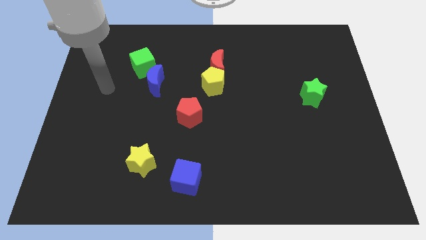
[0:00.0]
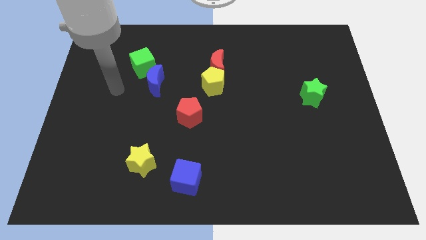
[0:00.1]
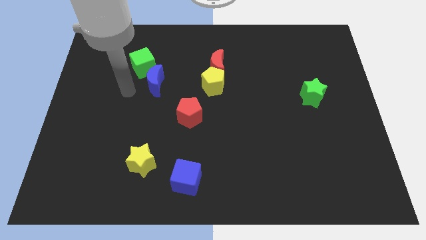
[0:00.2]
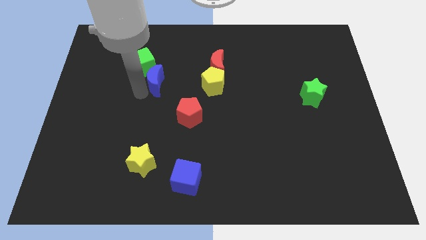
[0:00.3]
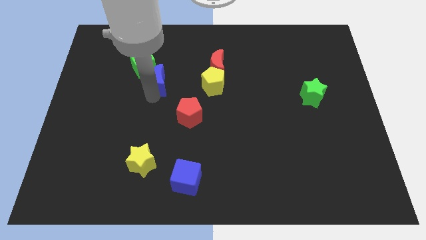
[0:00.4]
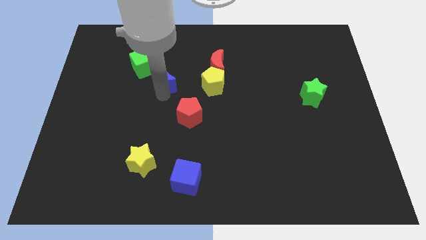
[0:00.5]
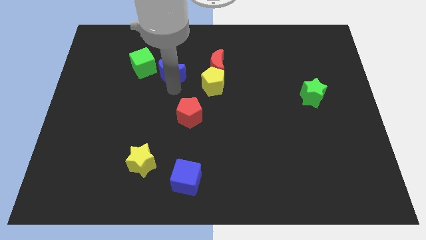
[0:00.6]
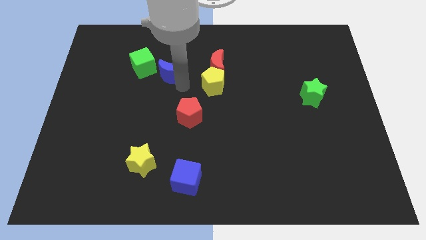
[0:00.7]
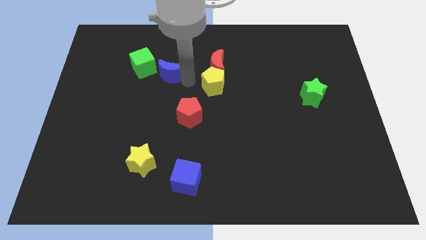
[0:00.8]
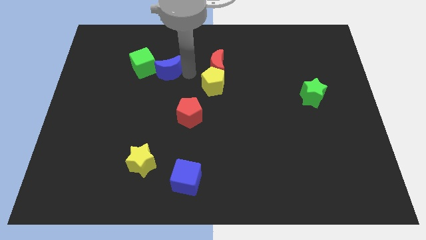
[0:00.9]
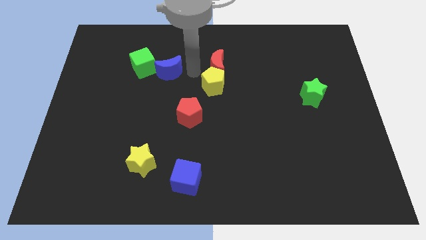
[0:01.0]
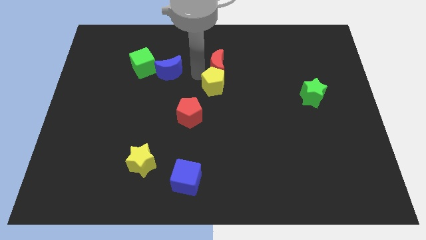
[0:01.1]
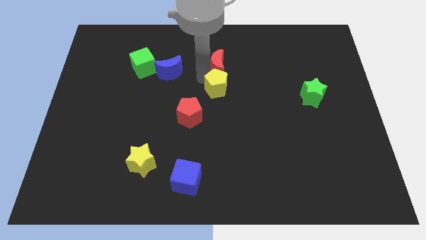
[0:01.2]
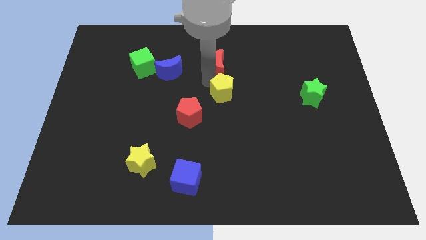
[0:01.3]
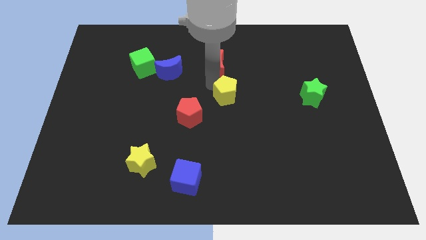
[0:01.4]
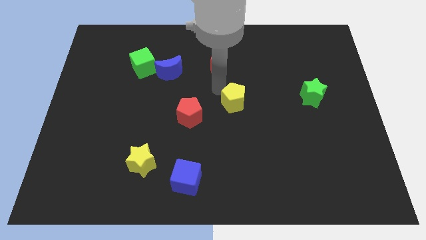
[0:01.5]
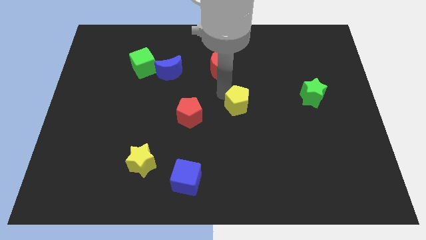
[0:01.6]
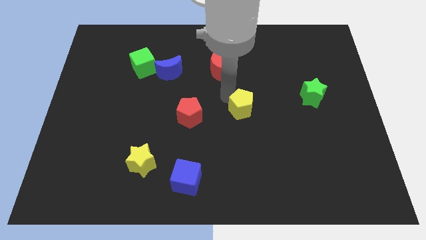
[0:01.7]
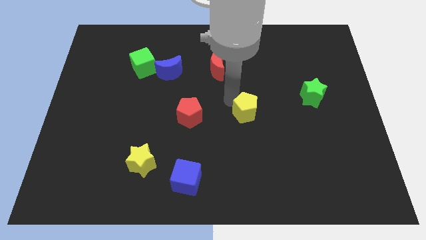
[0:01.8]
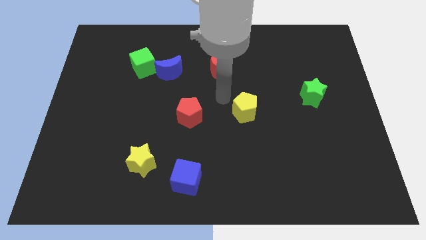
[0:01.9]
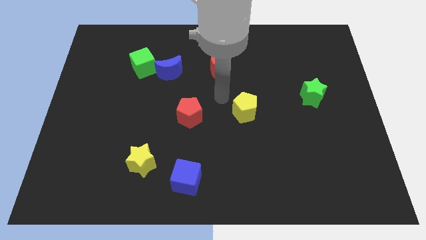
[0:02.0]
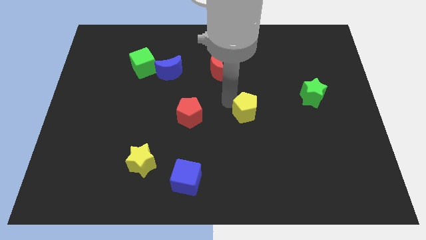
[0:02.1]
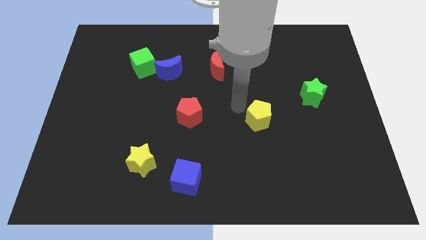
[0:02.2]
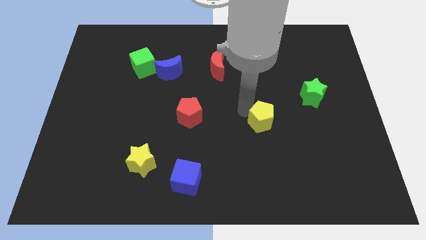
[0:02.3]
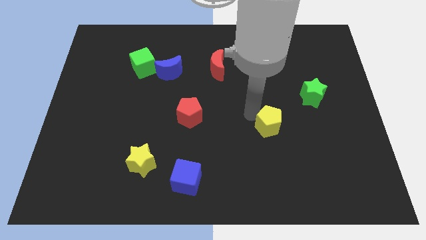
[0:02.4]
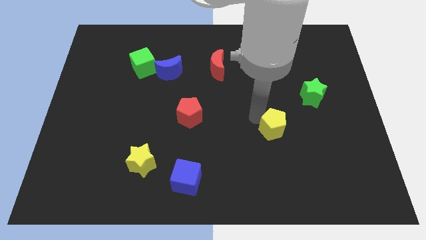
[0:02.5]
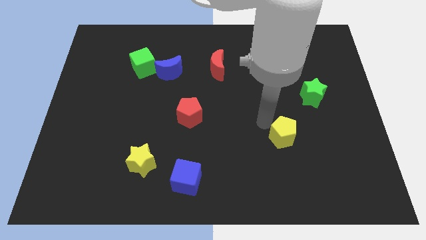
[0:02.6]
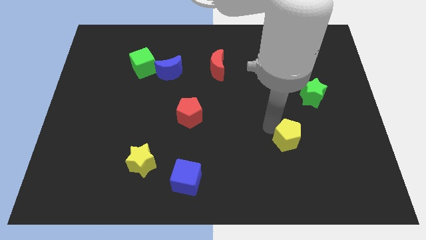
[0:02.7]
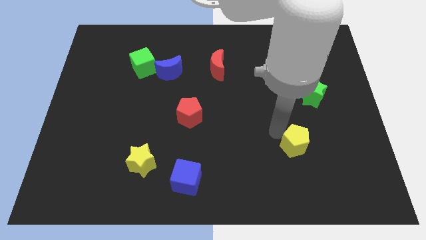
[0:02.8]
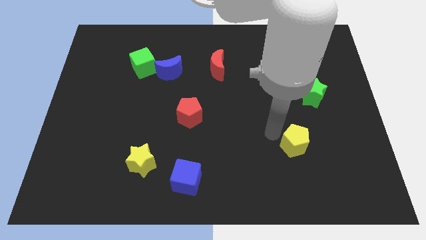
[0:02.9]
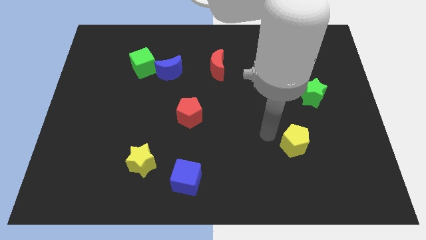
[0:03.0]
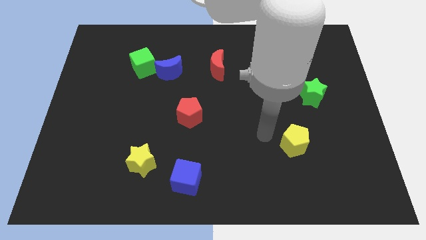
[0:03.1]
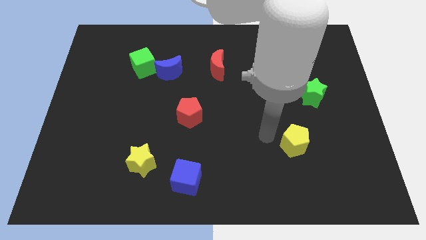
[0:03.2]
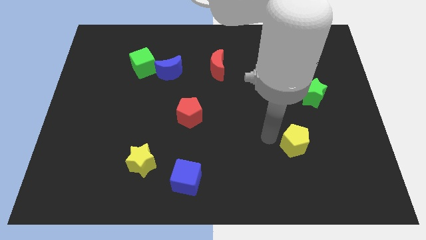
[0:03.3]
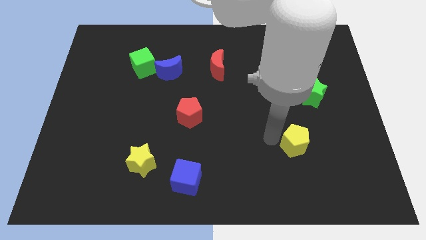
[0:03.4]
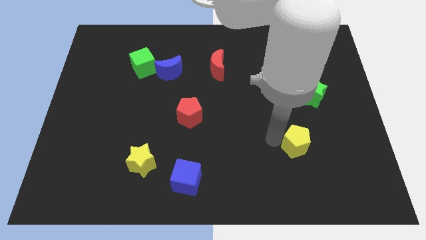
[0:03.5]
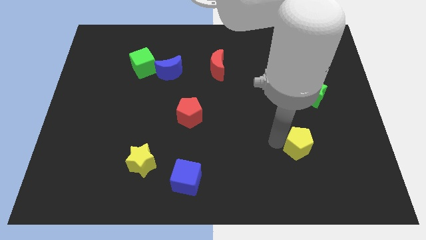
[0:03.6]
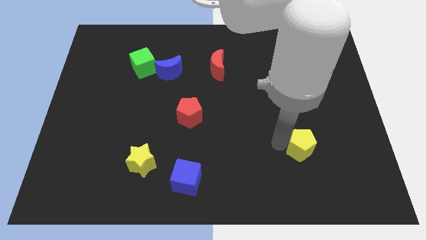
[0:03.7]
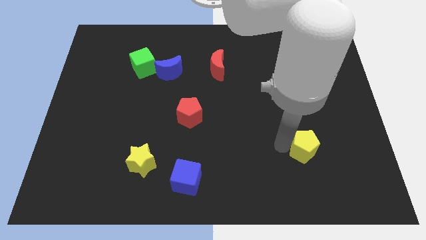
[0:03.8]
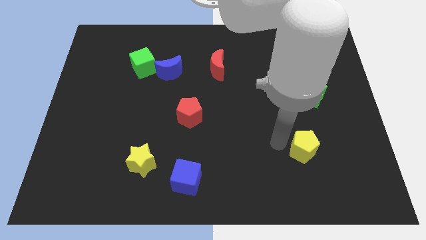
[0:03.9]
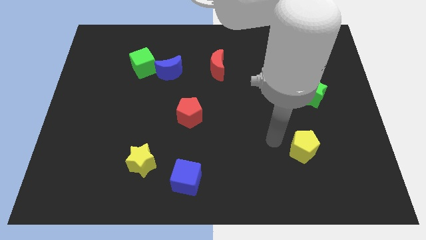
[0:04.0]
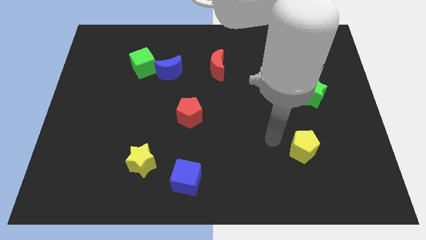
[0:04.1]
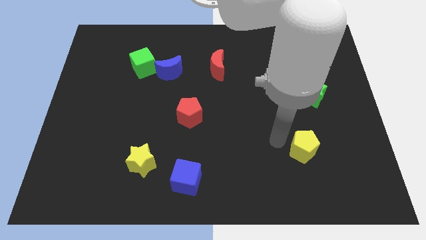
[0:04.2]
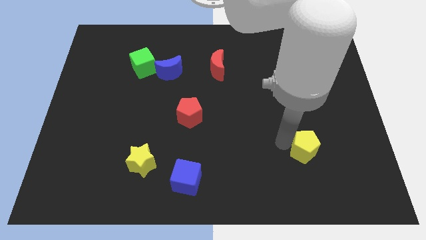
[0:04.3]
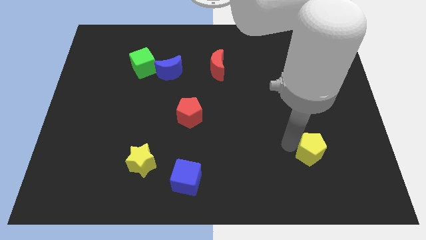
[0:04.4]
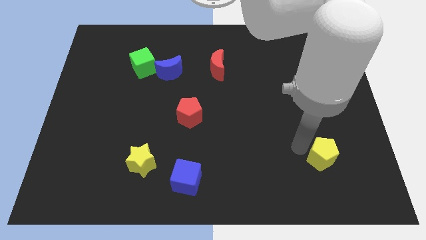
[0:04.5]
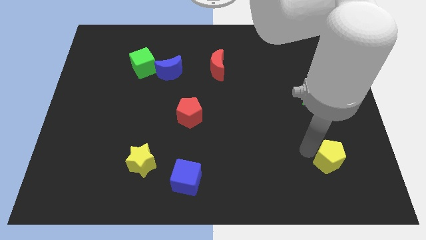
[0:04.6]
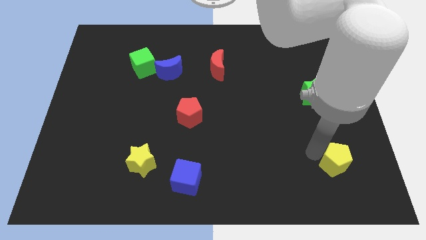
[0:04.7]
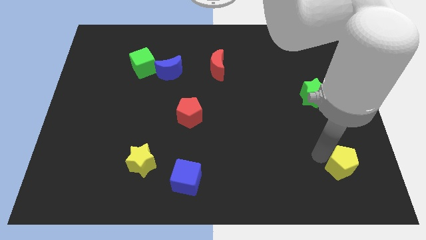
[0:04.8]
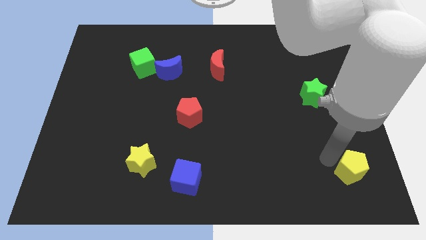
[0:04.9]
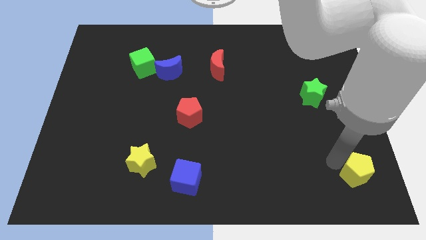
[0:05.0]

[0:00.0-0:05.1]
slide the yellow pentagon to the bottom right of the board

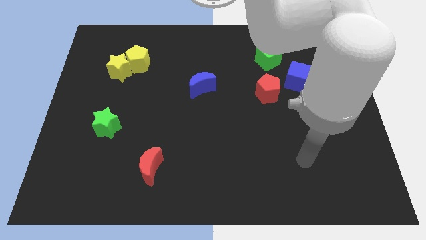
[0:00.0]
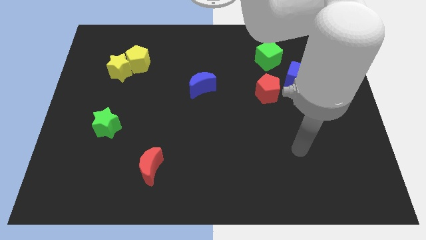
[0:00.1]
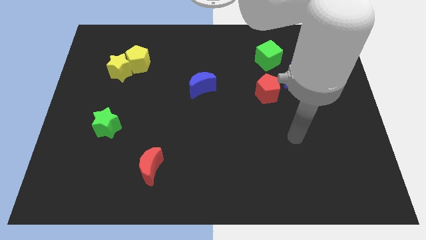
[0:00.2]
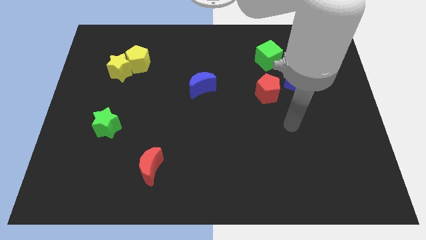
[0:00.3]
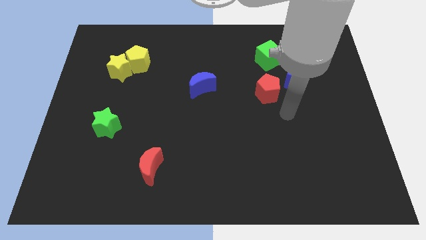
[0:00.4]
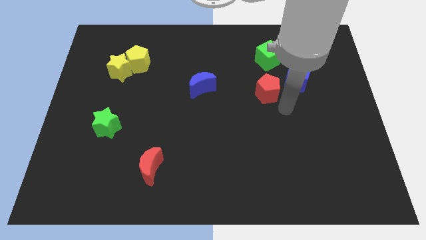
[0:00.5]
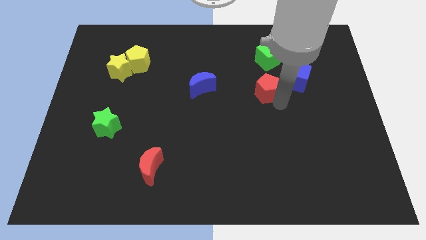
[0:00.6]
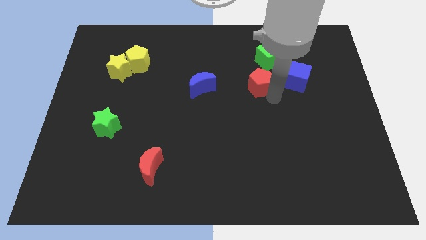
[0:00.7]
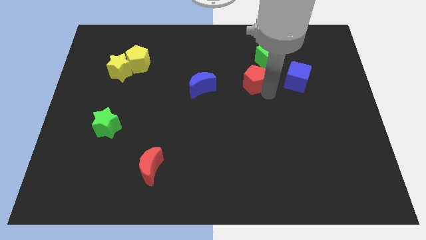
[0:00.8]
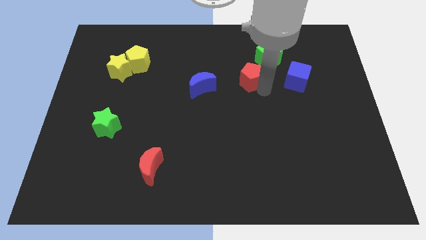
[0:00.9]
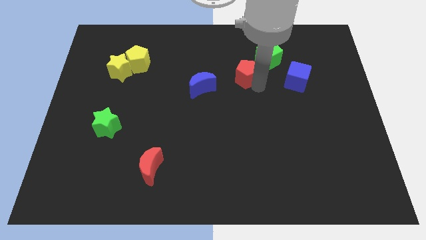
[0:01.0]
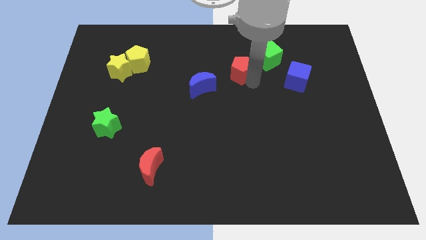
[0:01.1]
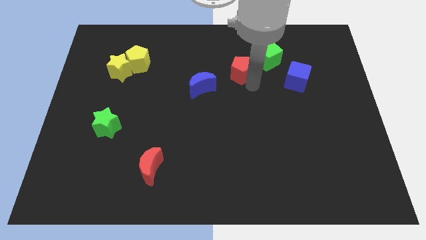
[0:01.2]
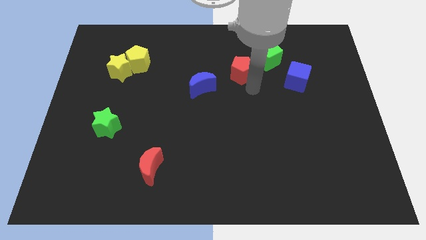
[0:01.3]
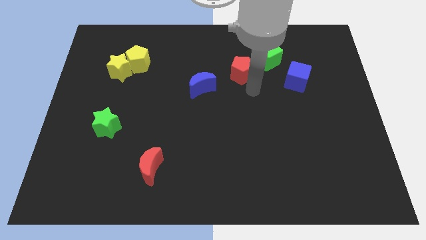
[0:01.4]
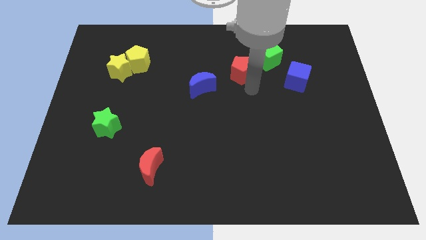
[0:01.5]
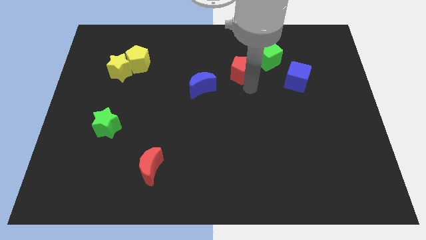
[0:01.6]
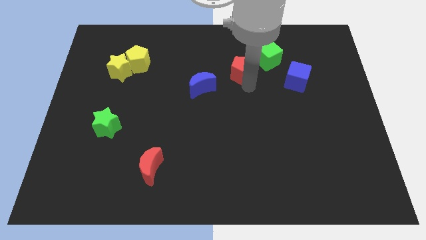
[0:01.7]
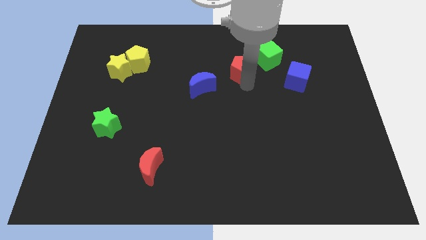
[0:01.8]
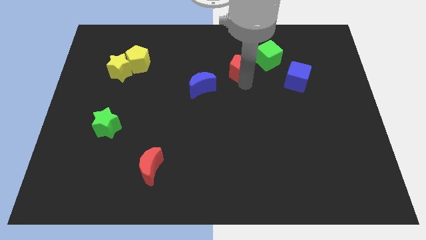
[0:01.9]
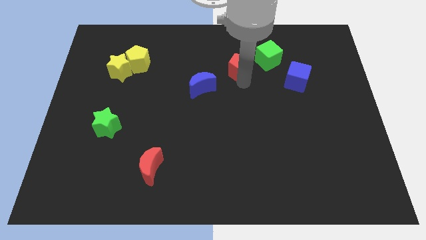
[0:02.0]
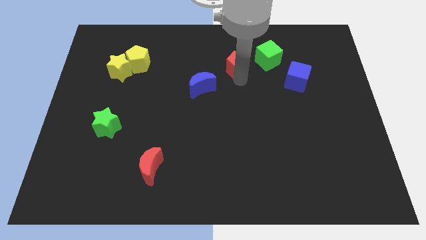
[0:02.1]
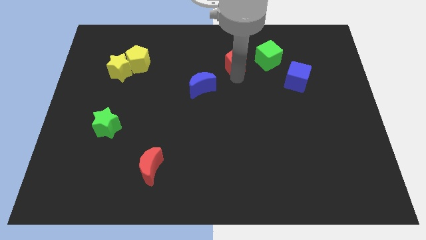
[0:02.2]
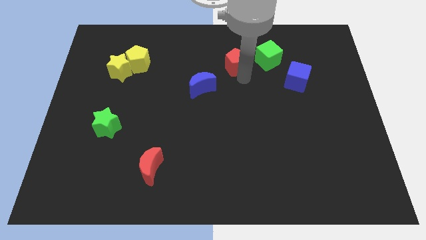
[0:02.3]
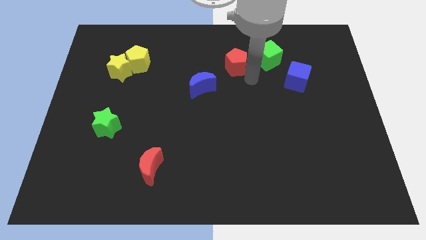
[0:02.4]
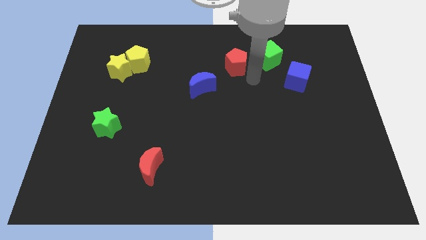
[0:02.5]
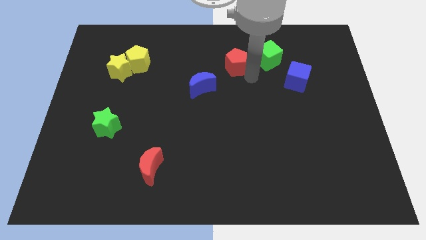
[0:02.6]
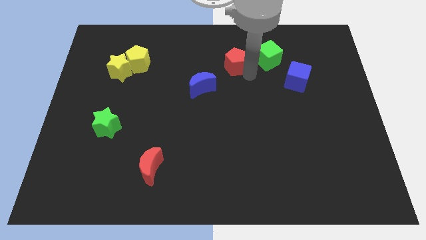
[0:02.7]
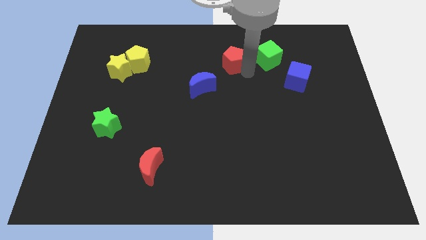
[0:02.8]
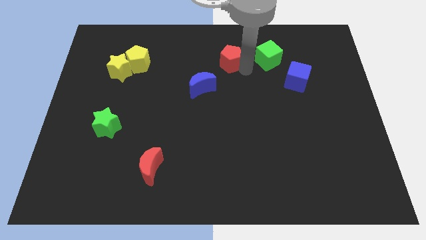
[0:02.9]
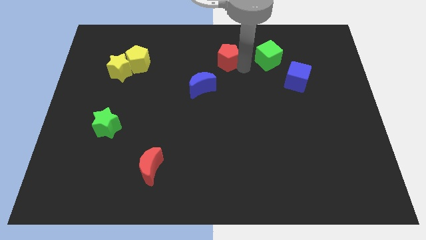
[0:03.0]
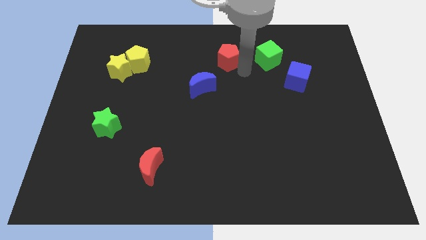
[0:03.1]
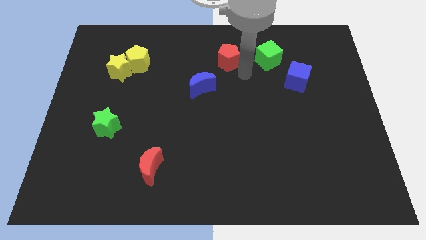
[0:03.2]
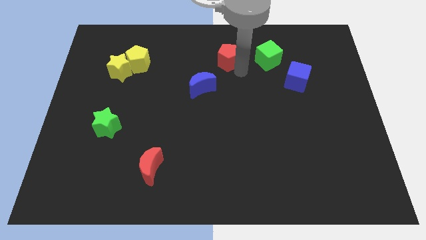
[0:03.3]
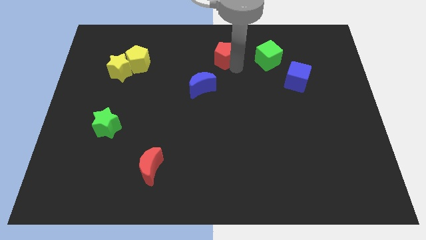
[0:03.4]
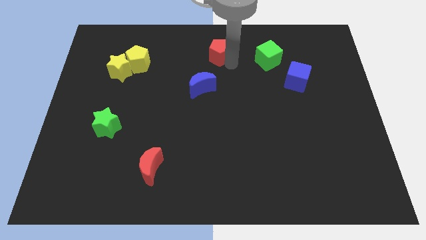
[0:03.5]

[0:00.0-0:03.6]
move the red pentagon to the top
